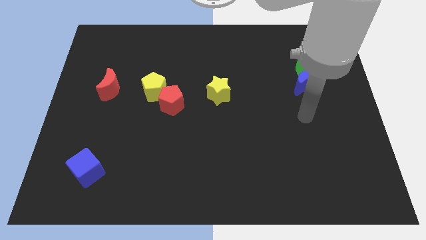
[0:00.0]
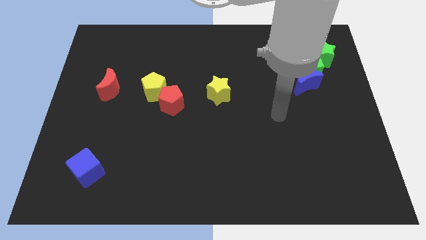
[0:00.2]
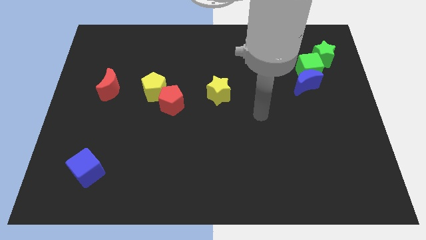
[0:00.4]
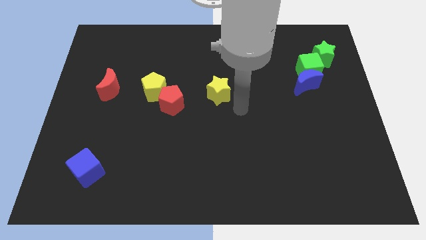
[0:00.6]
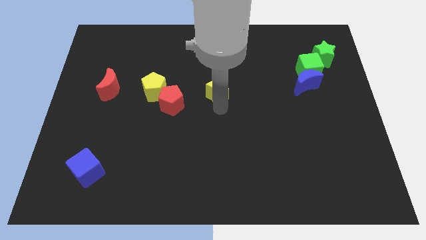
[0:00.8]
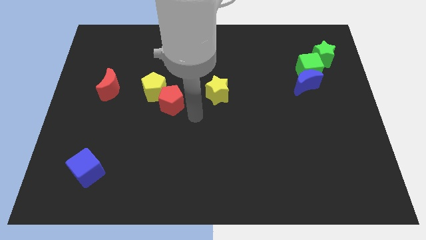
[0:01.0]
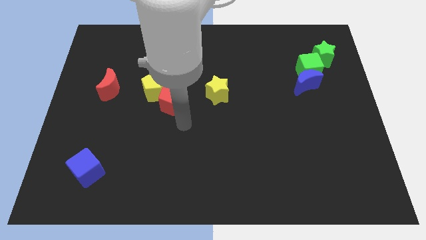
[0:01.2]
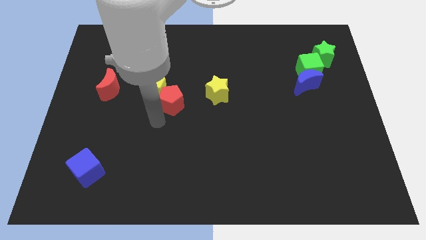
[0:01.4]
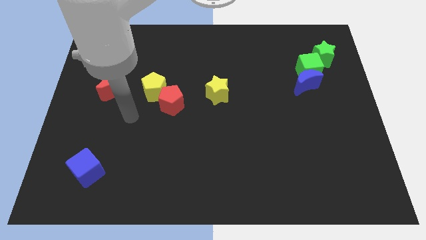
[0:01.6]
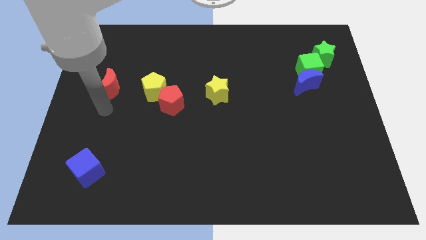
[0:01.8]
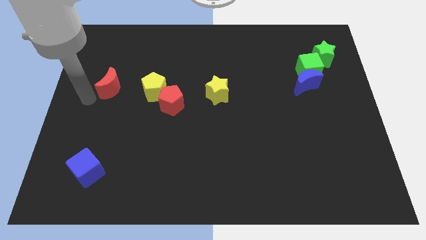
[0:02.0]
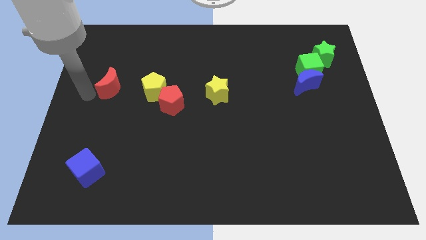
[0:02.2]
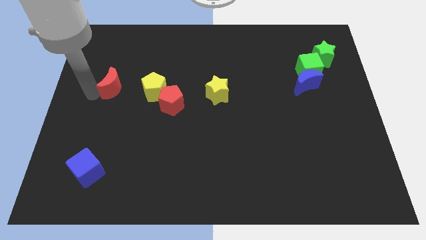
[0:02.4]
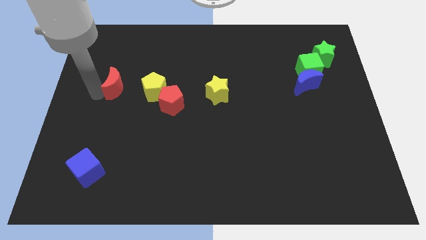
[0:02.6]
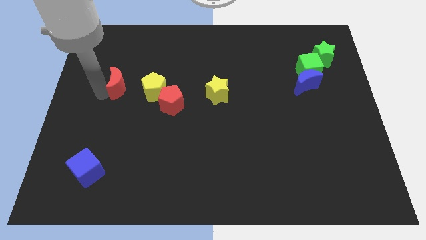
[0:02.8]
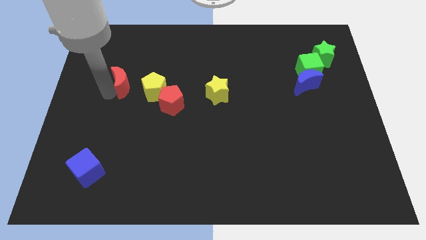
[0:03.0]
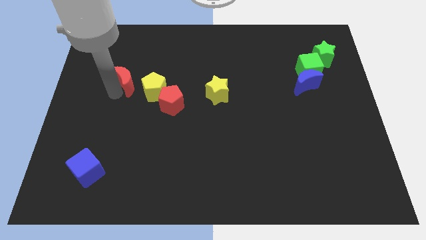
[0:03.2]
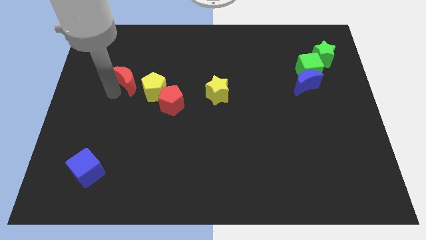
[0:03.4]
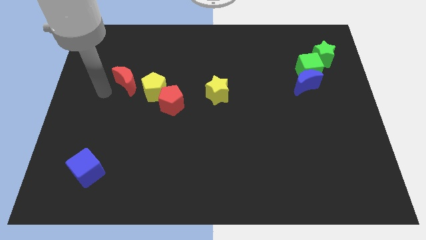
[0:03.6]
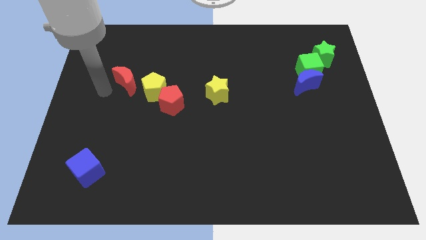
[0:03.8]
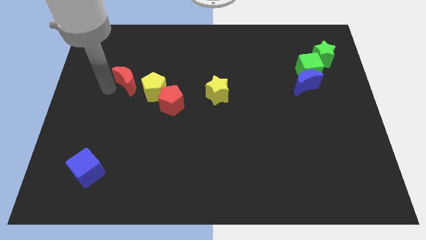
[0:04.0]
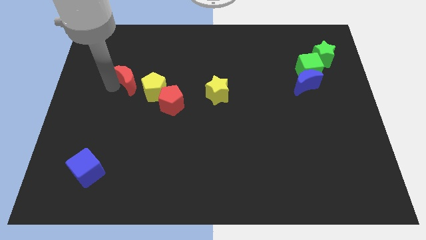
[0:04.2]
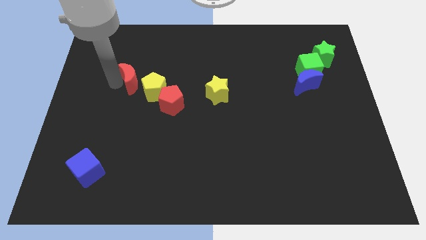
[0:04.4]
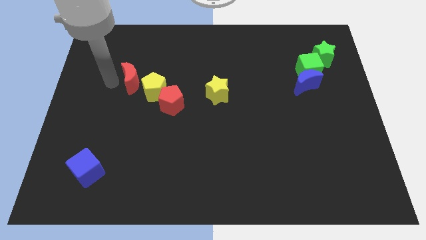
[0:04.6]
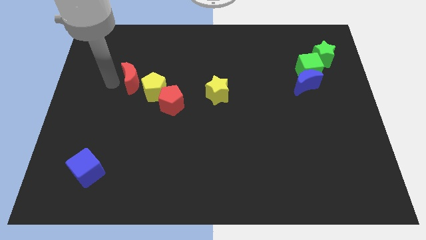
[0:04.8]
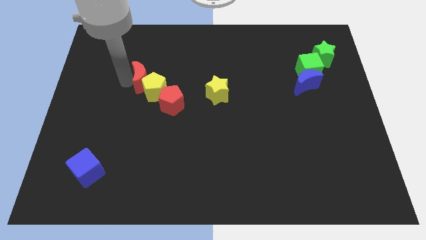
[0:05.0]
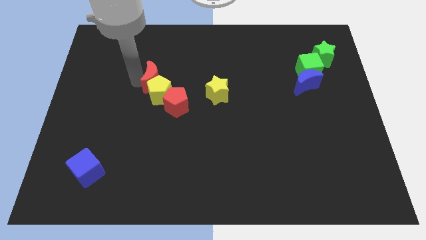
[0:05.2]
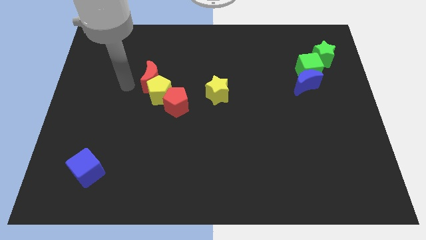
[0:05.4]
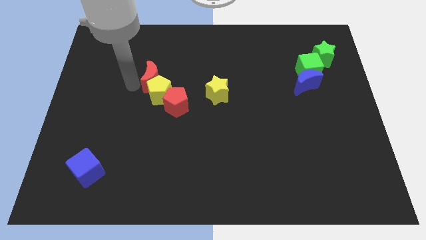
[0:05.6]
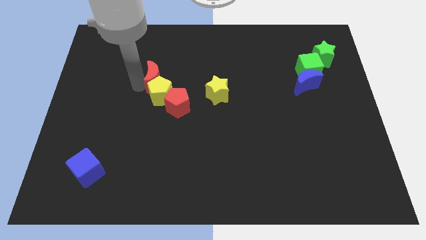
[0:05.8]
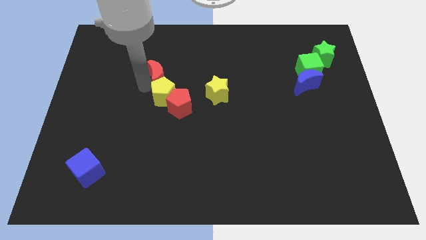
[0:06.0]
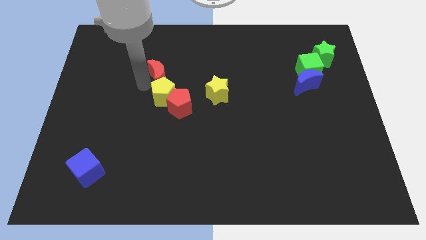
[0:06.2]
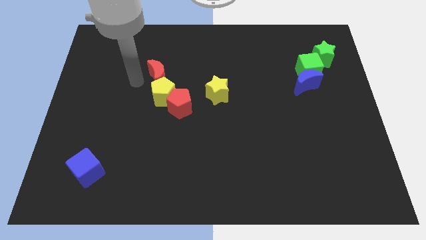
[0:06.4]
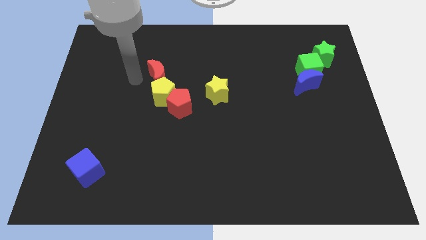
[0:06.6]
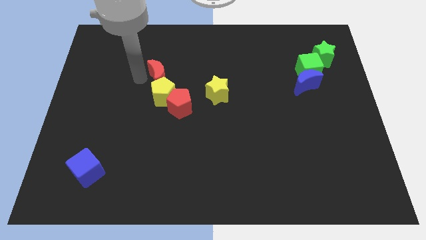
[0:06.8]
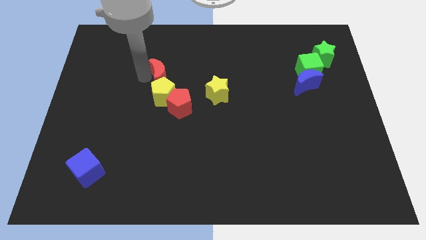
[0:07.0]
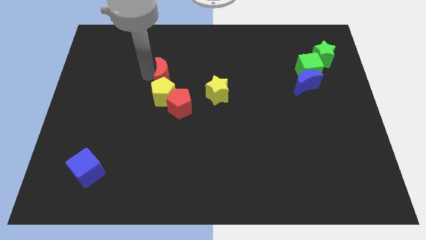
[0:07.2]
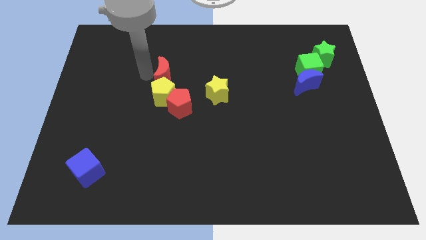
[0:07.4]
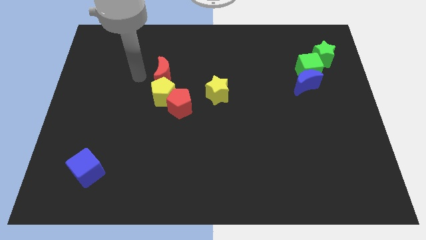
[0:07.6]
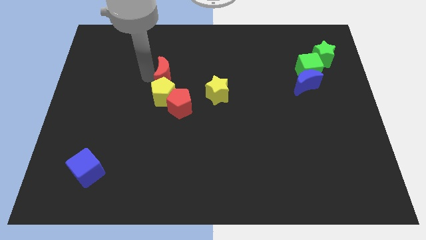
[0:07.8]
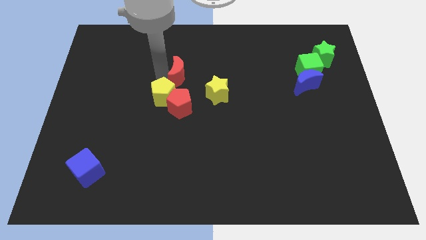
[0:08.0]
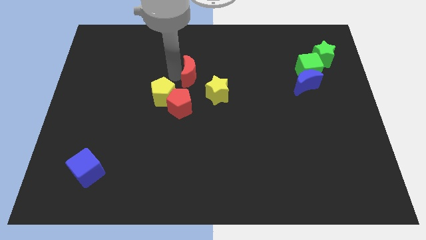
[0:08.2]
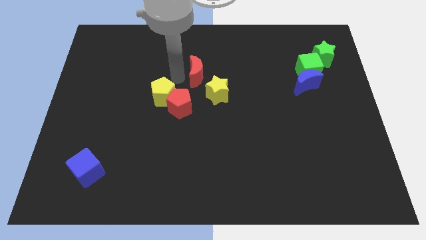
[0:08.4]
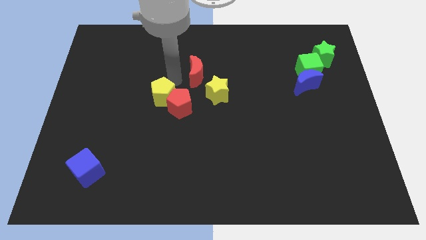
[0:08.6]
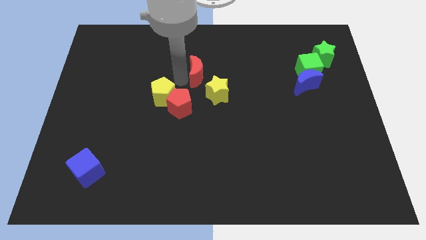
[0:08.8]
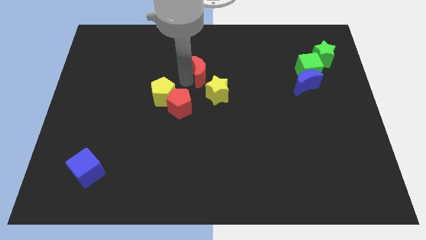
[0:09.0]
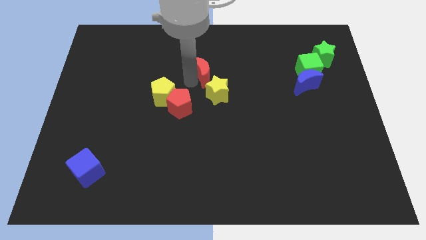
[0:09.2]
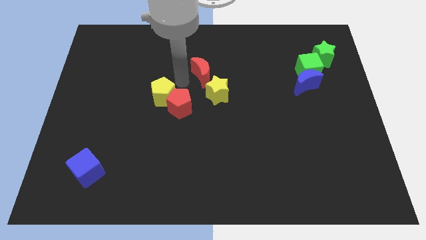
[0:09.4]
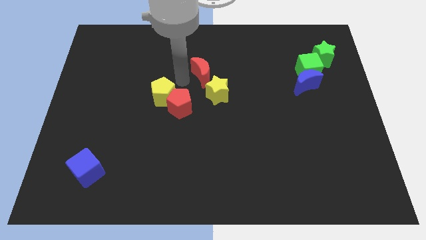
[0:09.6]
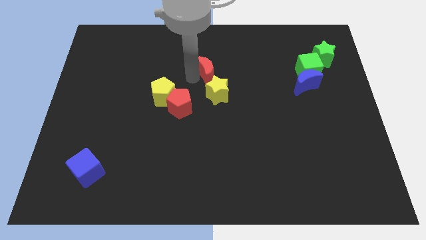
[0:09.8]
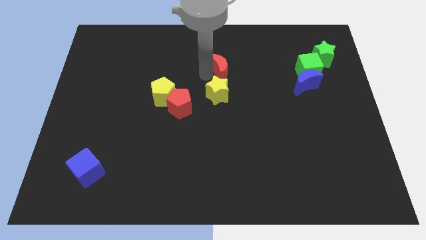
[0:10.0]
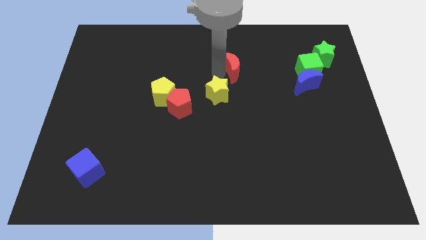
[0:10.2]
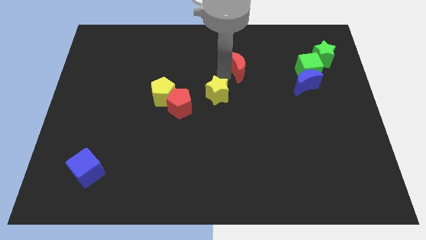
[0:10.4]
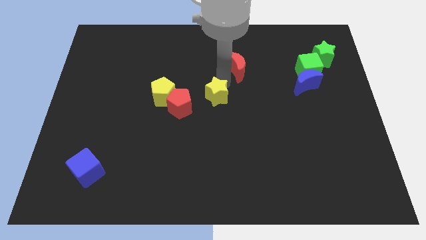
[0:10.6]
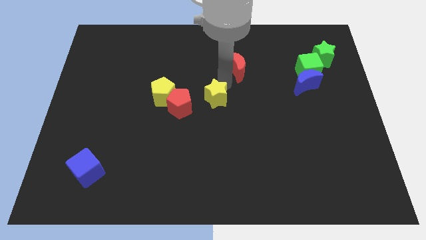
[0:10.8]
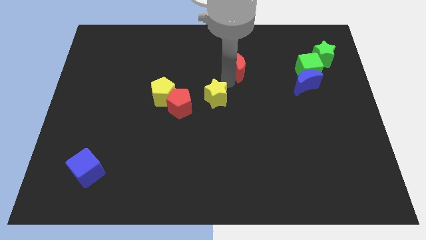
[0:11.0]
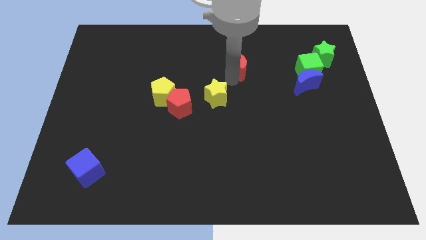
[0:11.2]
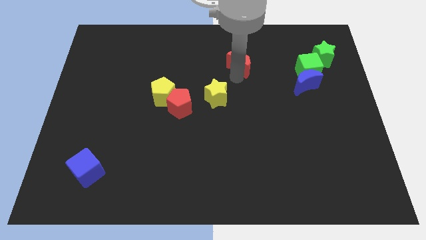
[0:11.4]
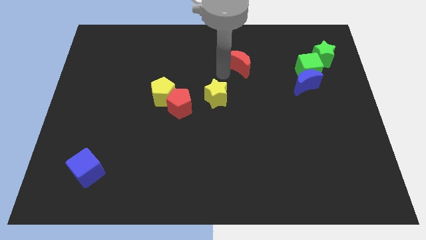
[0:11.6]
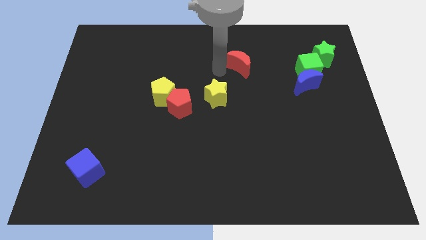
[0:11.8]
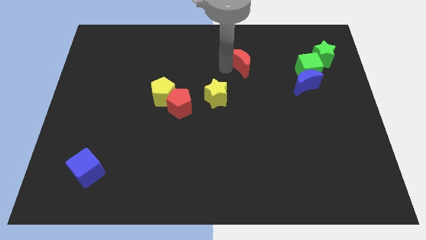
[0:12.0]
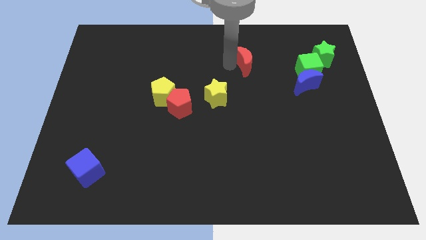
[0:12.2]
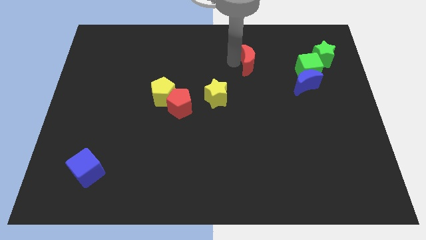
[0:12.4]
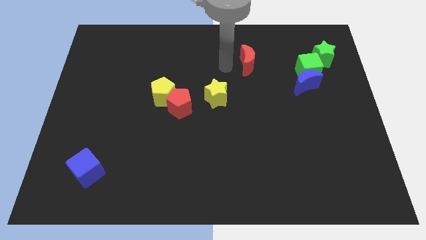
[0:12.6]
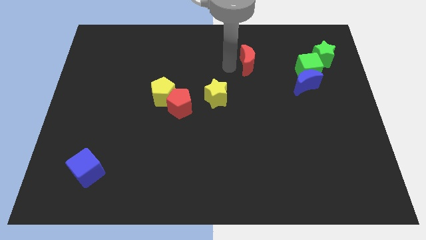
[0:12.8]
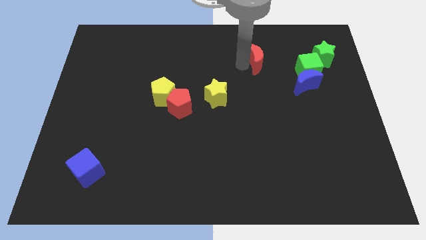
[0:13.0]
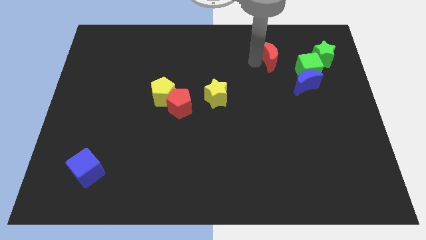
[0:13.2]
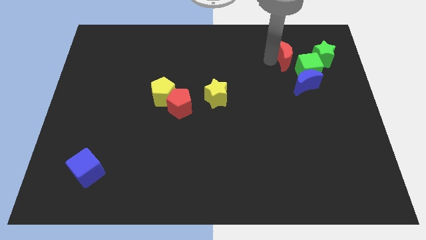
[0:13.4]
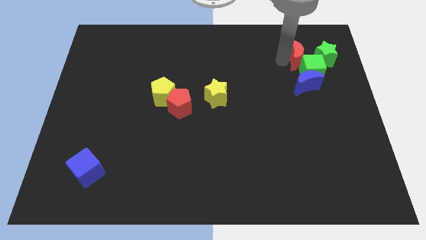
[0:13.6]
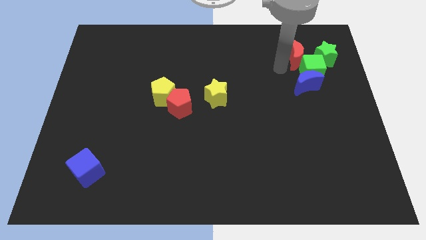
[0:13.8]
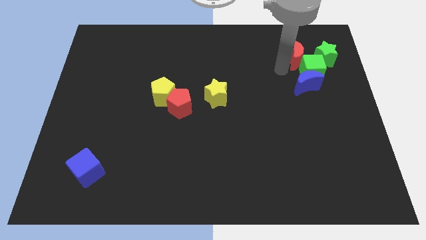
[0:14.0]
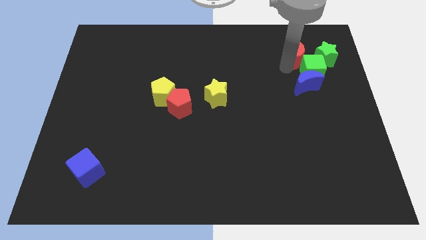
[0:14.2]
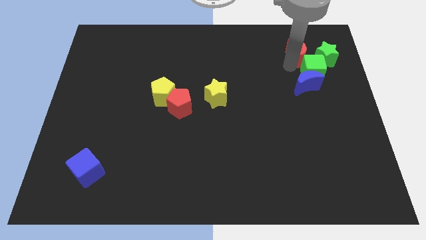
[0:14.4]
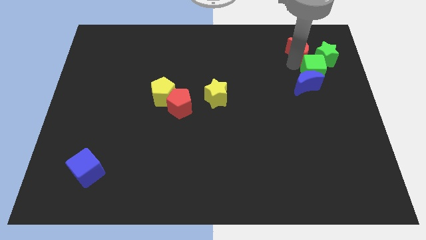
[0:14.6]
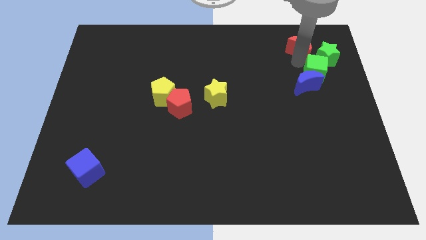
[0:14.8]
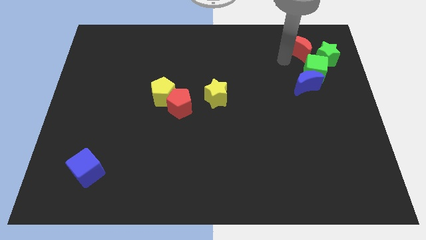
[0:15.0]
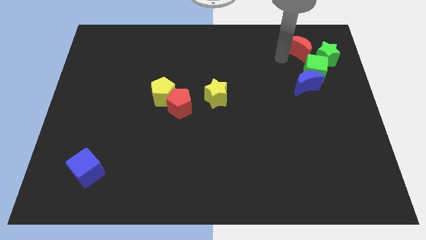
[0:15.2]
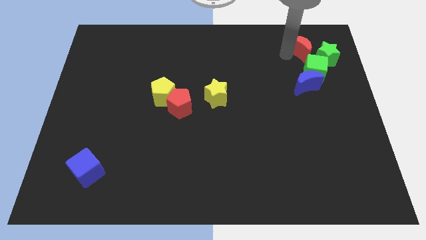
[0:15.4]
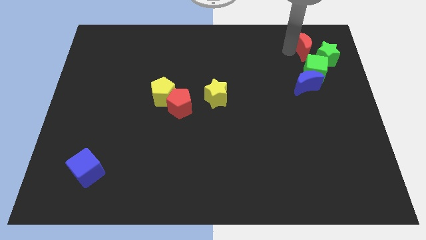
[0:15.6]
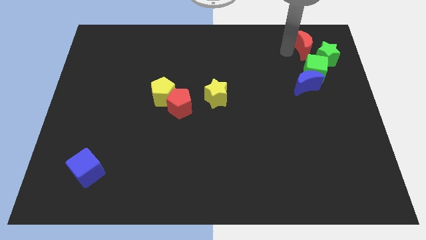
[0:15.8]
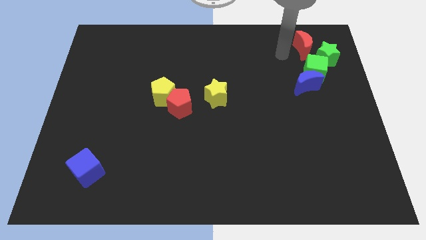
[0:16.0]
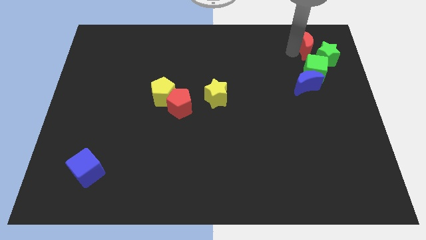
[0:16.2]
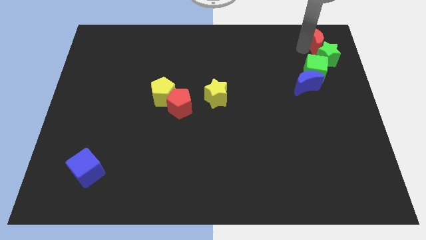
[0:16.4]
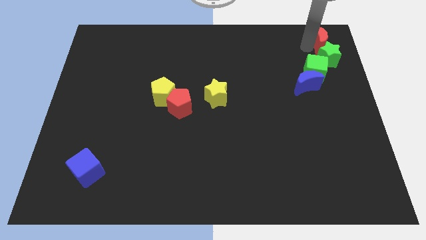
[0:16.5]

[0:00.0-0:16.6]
put the red moon to the upper right corner
